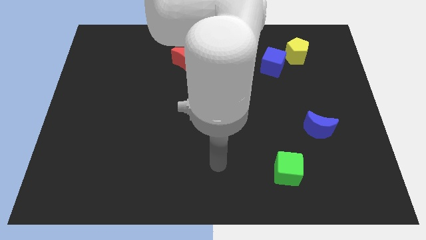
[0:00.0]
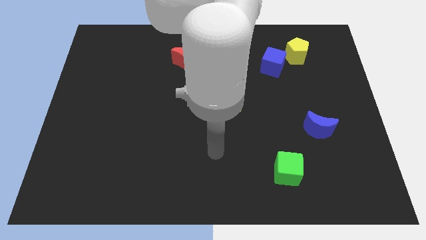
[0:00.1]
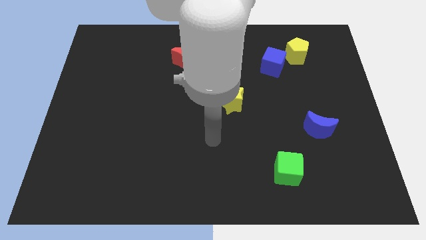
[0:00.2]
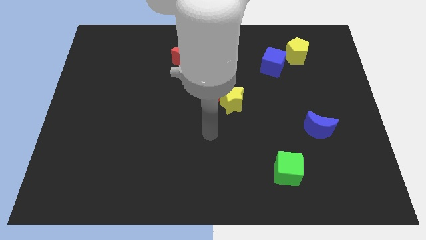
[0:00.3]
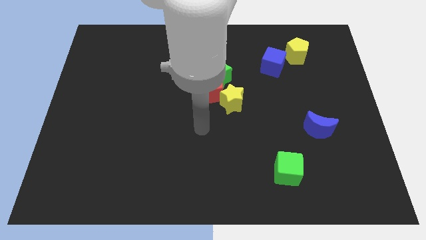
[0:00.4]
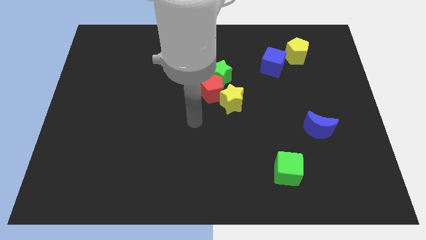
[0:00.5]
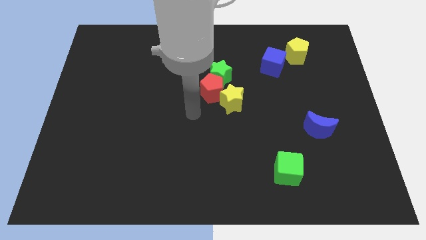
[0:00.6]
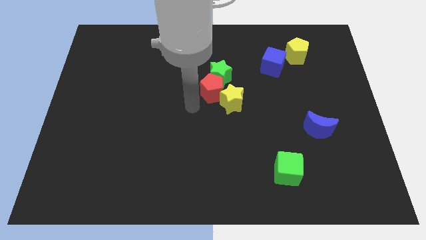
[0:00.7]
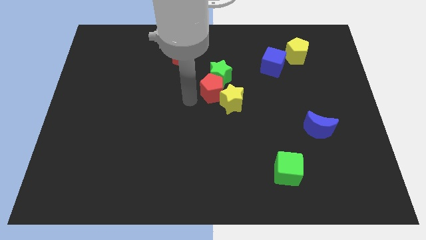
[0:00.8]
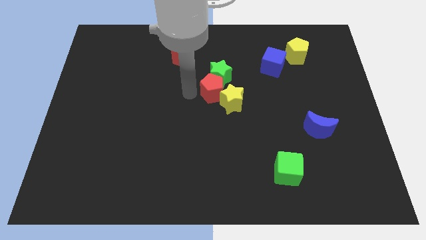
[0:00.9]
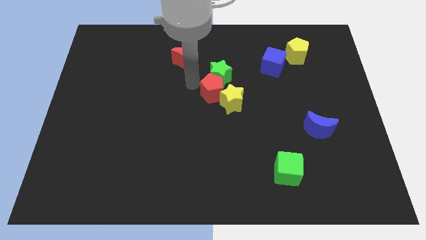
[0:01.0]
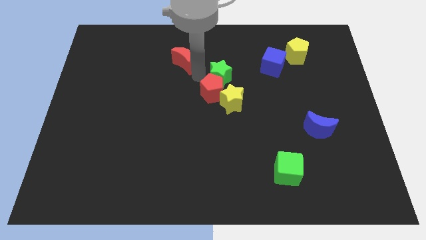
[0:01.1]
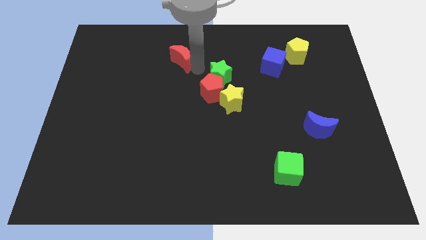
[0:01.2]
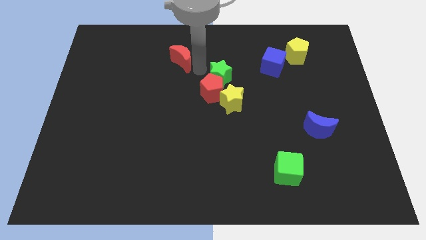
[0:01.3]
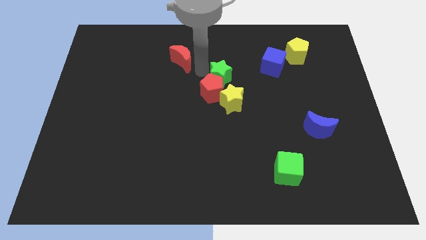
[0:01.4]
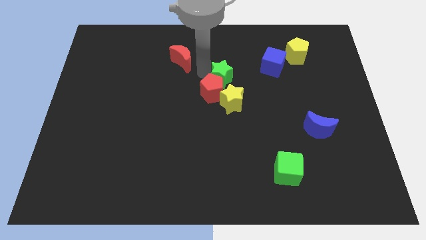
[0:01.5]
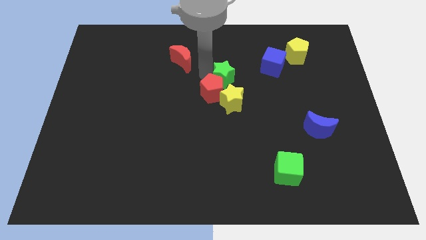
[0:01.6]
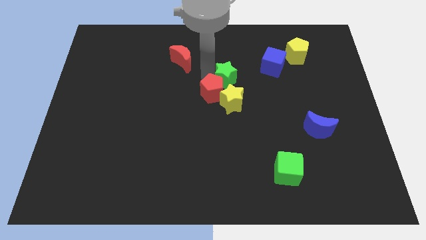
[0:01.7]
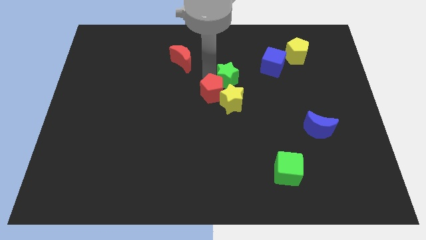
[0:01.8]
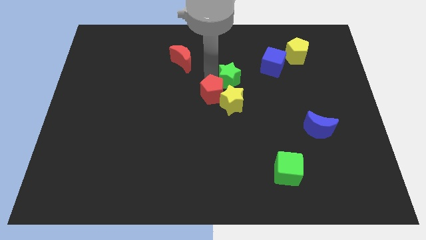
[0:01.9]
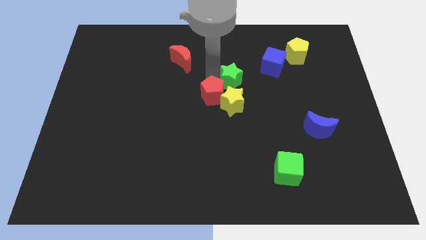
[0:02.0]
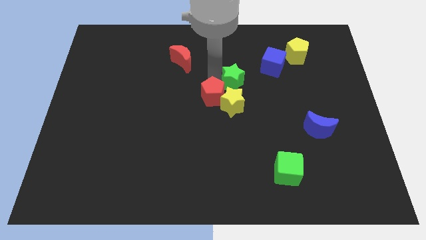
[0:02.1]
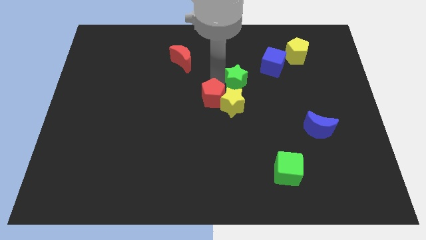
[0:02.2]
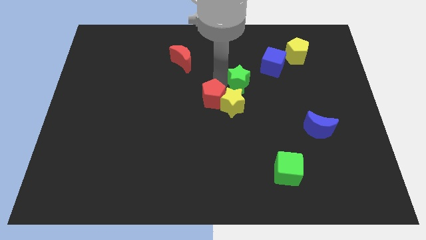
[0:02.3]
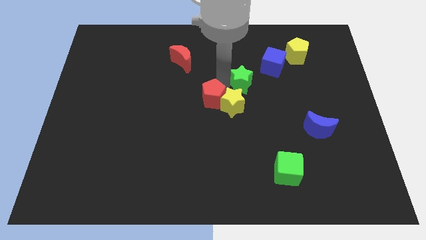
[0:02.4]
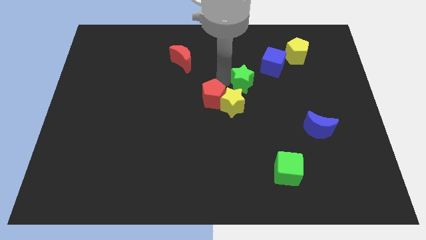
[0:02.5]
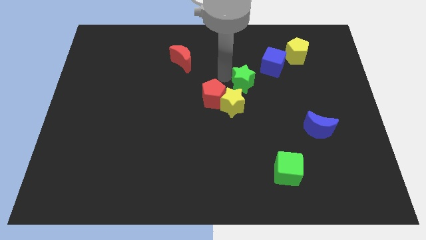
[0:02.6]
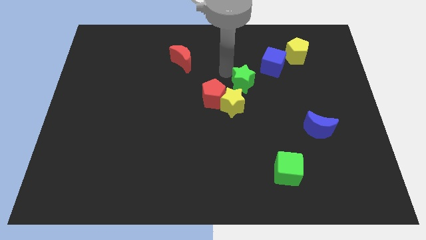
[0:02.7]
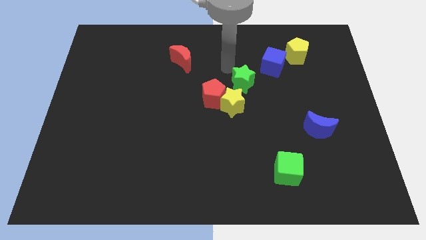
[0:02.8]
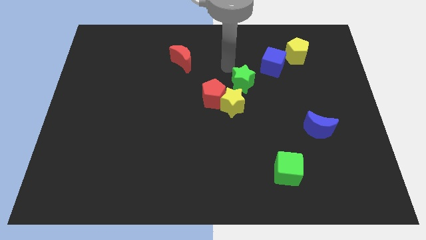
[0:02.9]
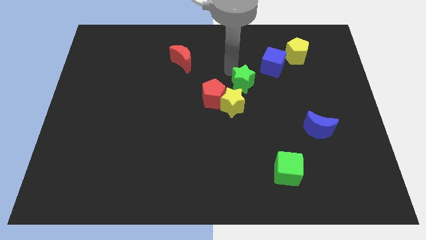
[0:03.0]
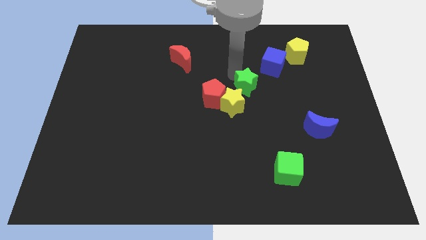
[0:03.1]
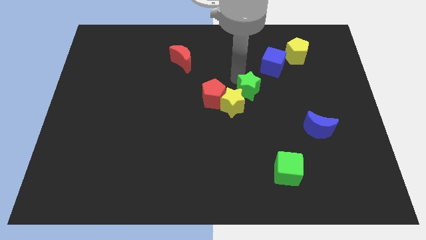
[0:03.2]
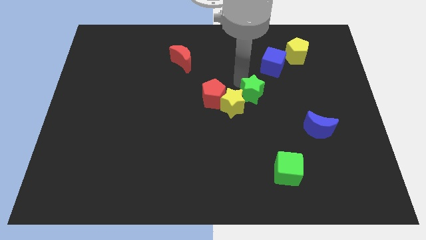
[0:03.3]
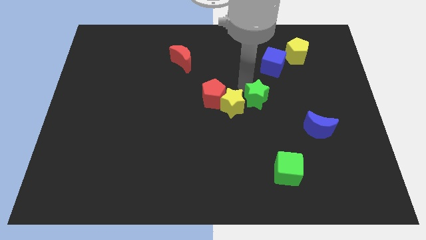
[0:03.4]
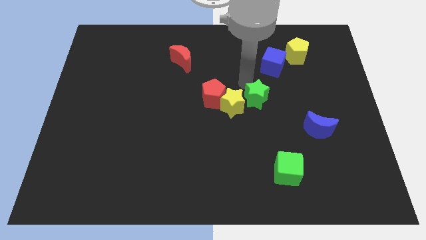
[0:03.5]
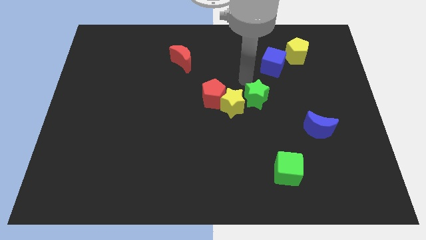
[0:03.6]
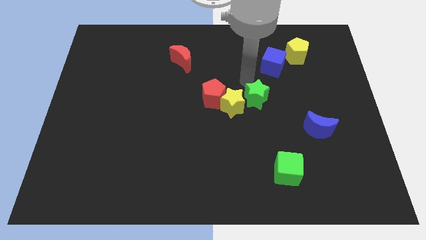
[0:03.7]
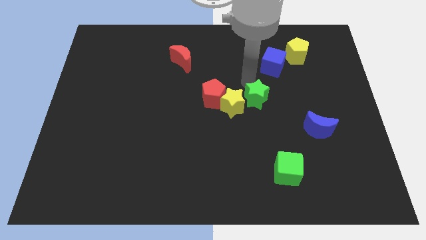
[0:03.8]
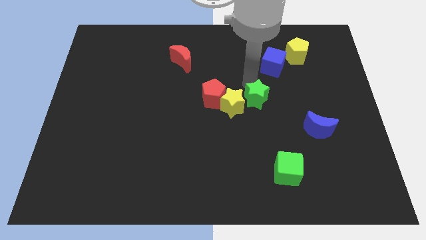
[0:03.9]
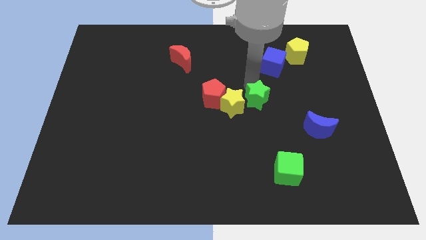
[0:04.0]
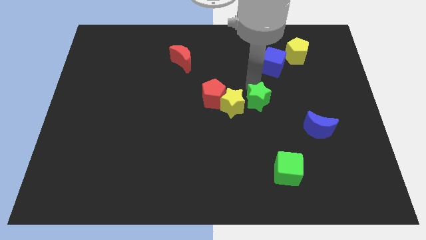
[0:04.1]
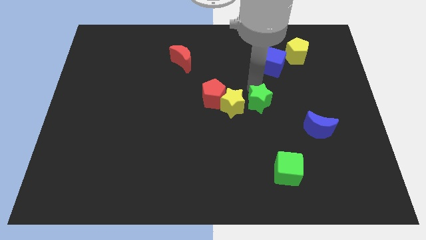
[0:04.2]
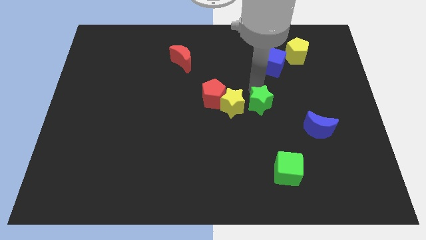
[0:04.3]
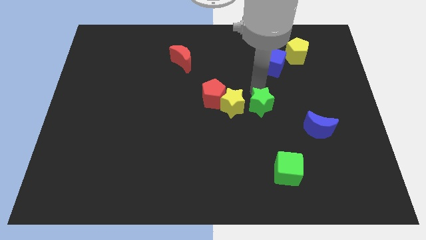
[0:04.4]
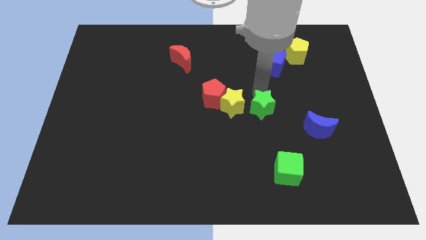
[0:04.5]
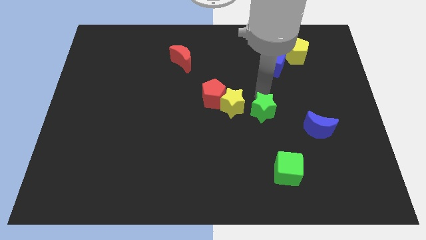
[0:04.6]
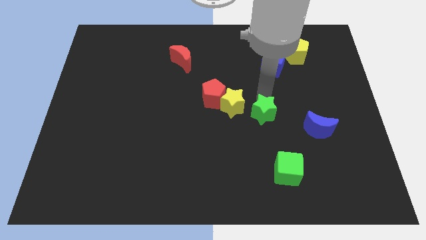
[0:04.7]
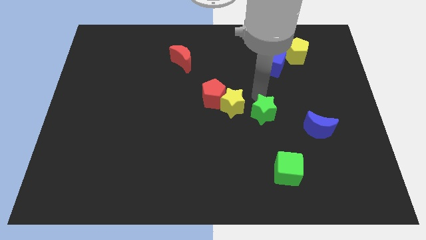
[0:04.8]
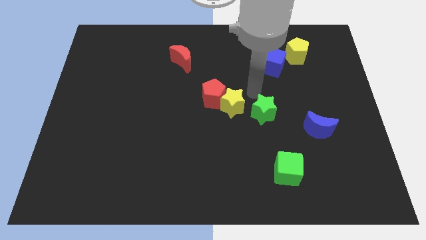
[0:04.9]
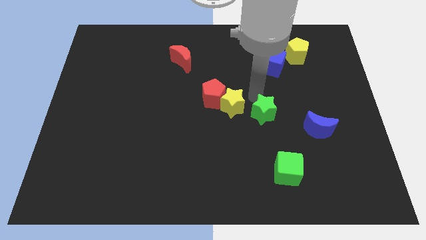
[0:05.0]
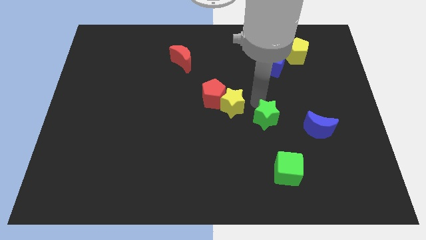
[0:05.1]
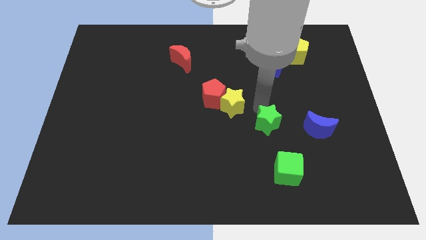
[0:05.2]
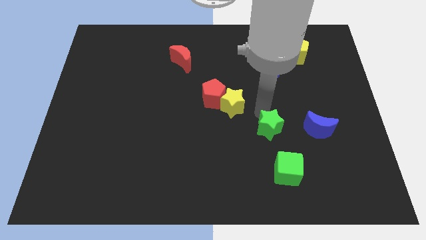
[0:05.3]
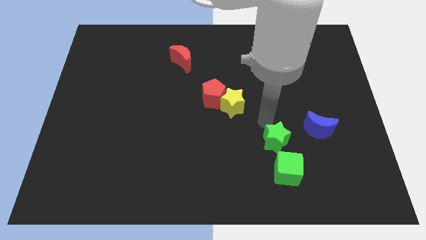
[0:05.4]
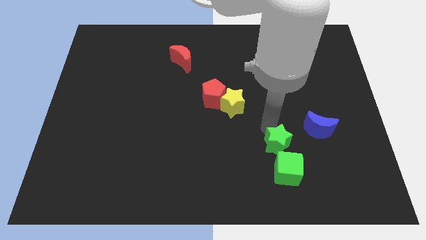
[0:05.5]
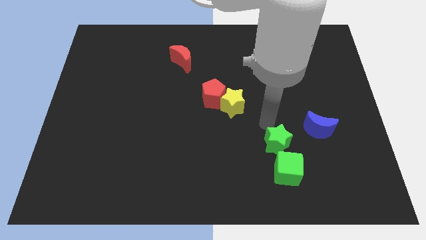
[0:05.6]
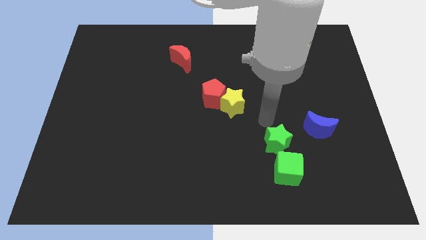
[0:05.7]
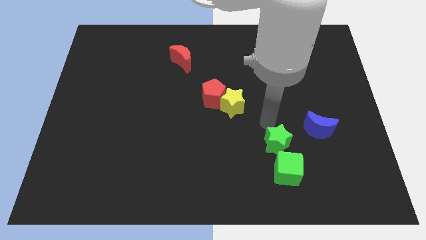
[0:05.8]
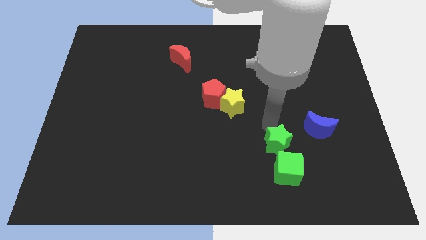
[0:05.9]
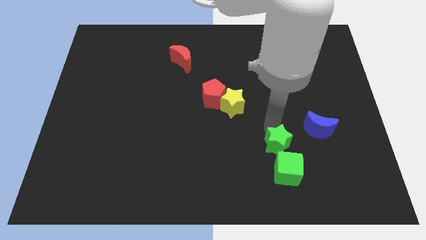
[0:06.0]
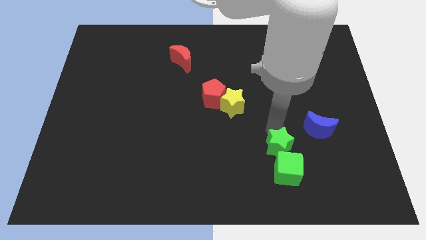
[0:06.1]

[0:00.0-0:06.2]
put the green star towards the green cube
